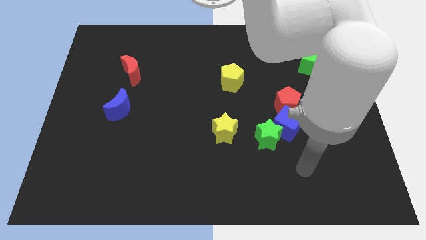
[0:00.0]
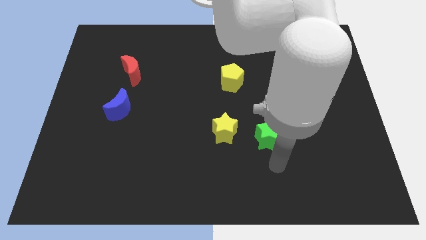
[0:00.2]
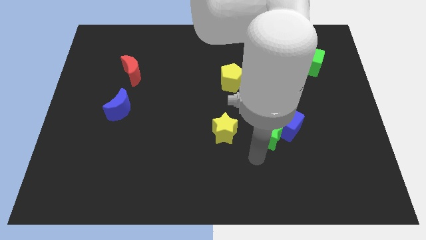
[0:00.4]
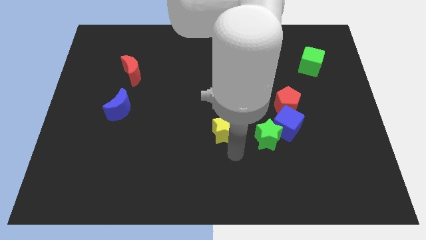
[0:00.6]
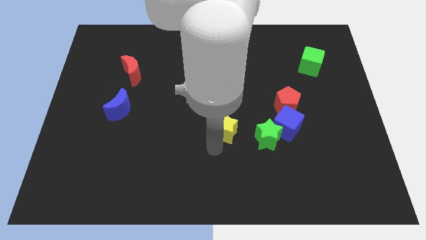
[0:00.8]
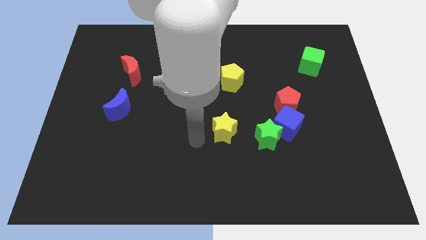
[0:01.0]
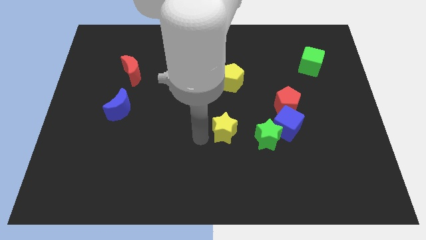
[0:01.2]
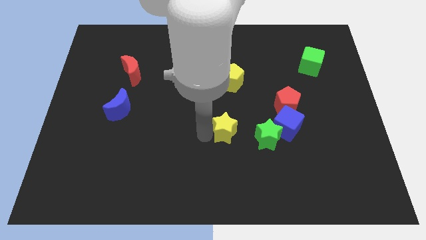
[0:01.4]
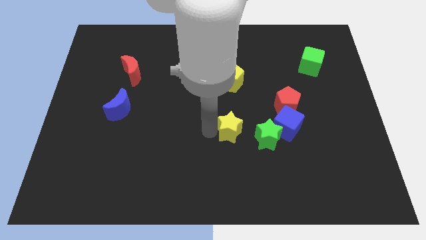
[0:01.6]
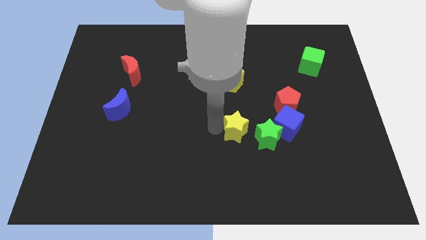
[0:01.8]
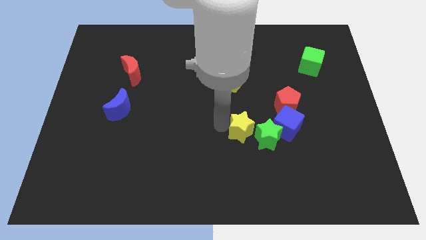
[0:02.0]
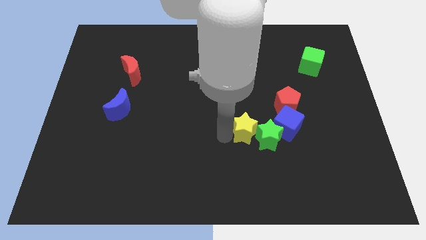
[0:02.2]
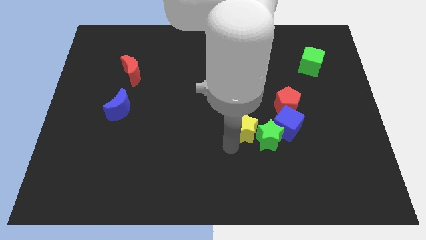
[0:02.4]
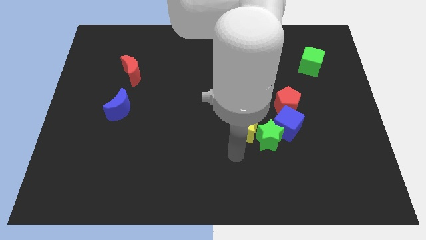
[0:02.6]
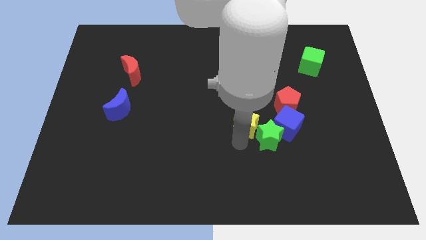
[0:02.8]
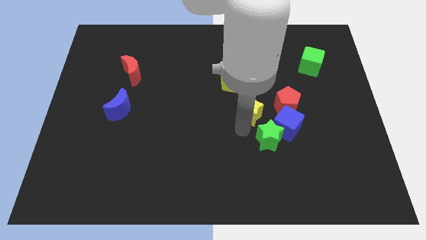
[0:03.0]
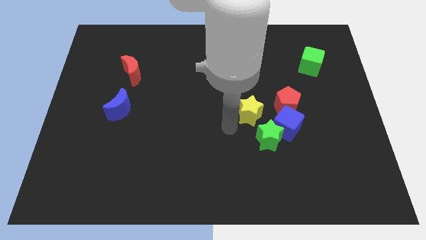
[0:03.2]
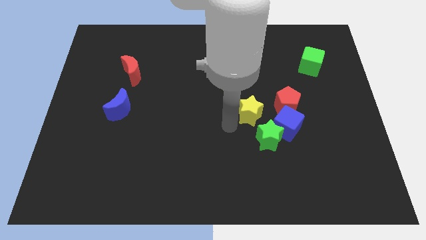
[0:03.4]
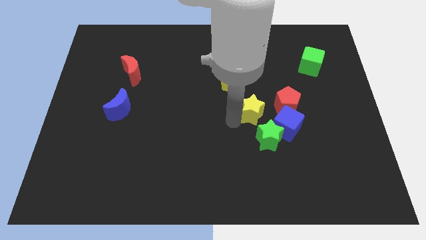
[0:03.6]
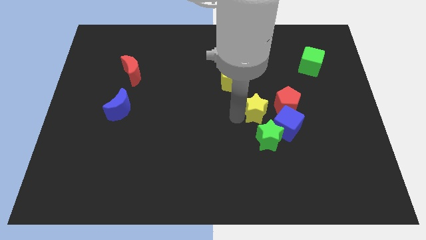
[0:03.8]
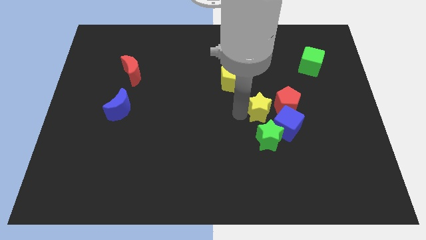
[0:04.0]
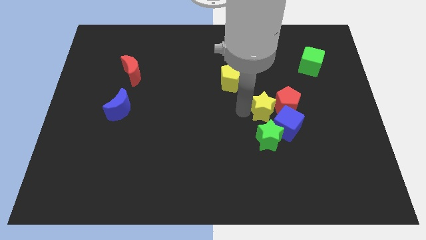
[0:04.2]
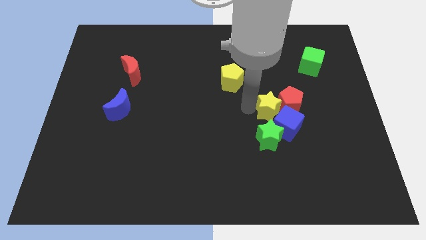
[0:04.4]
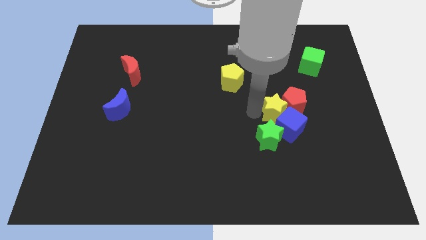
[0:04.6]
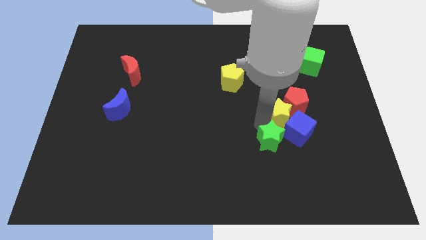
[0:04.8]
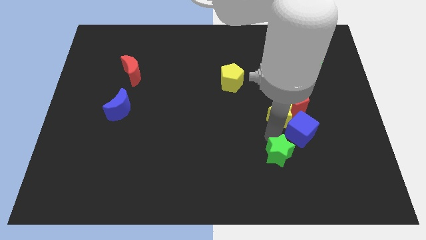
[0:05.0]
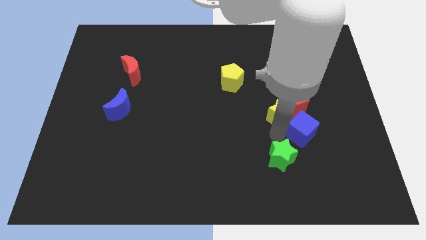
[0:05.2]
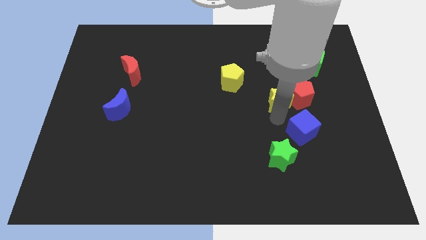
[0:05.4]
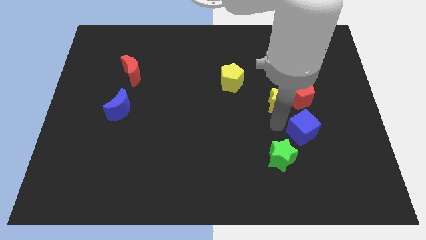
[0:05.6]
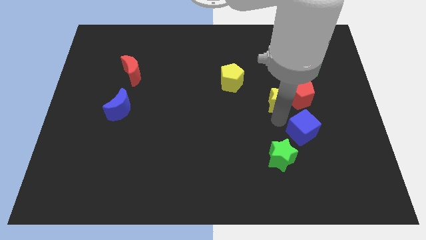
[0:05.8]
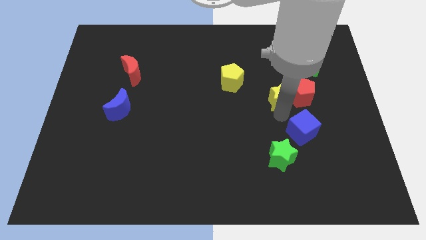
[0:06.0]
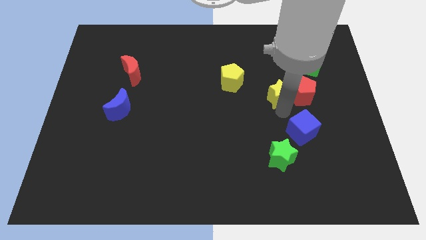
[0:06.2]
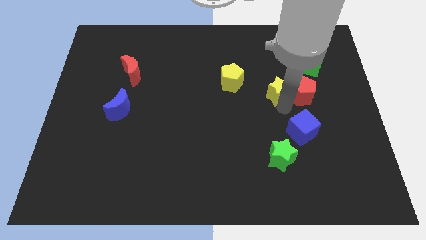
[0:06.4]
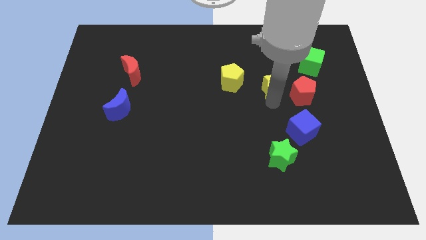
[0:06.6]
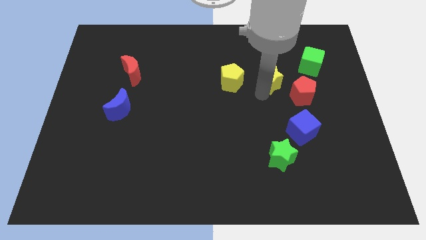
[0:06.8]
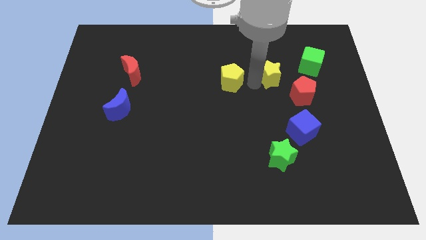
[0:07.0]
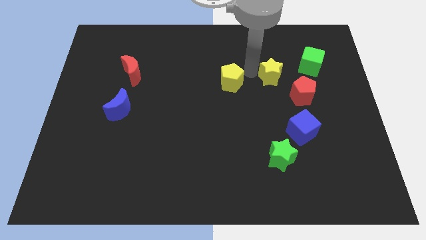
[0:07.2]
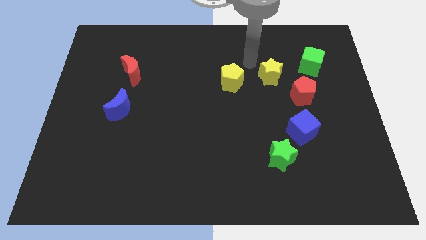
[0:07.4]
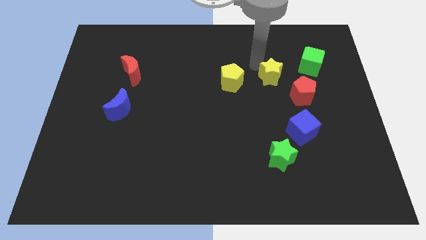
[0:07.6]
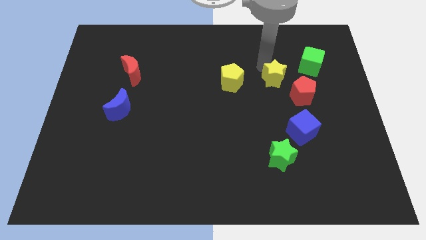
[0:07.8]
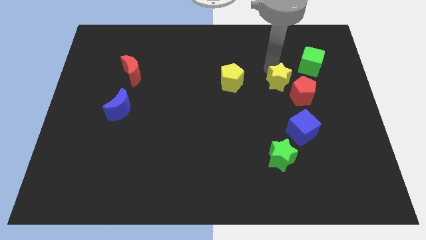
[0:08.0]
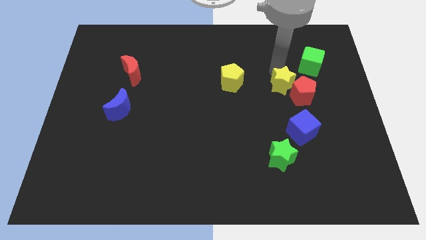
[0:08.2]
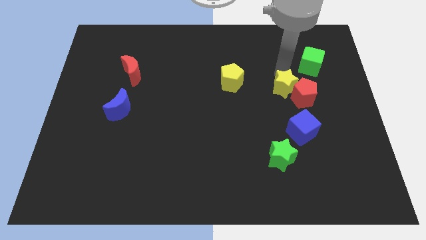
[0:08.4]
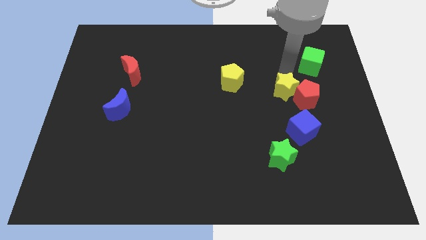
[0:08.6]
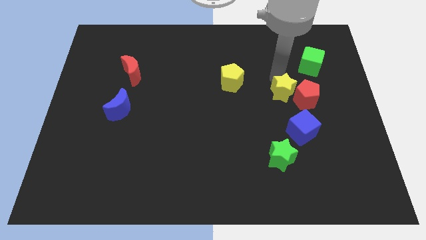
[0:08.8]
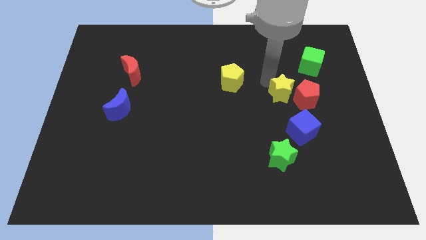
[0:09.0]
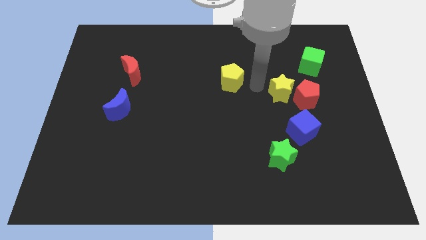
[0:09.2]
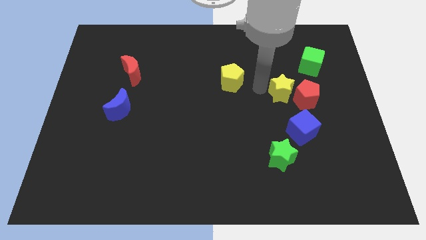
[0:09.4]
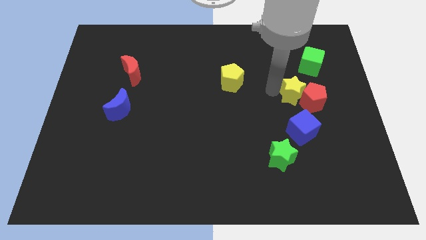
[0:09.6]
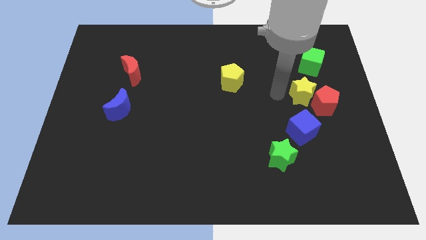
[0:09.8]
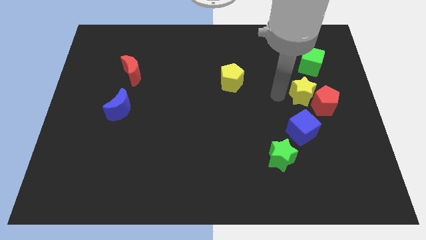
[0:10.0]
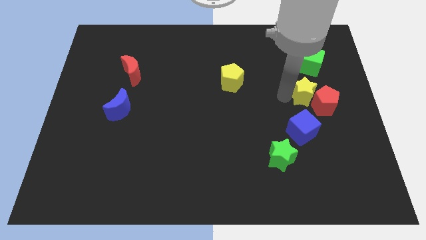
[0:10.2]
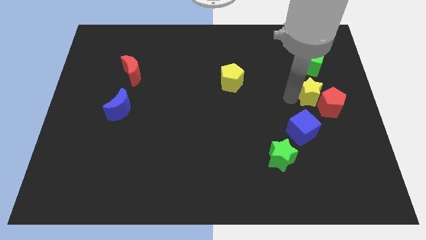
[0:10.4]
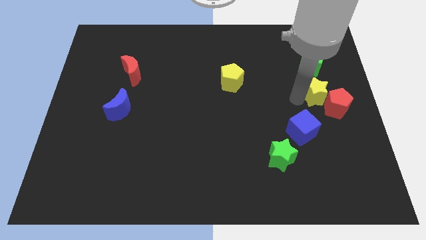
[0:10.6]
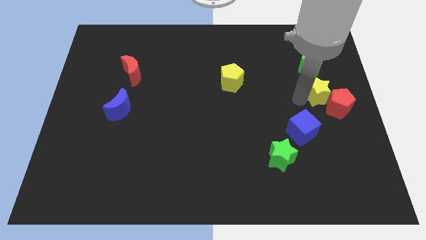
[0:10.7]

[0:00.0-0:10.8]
push the yellow star to the right side

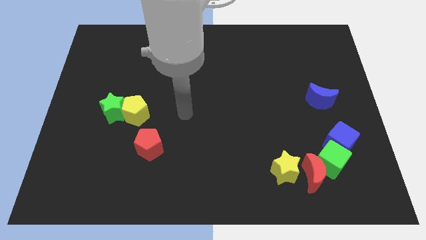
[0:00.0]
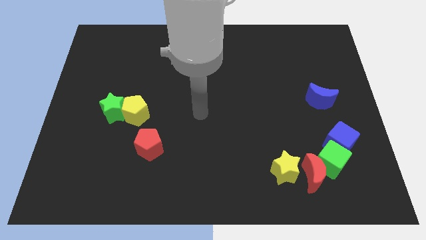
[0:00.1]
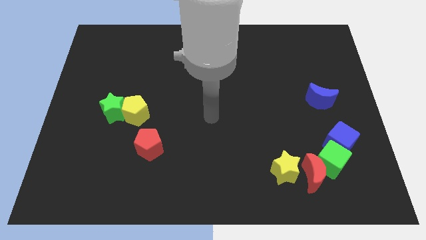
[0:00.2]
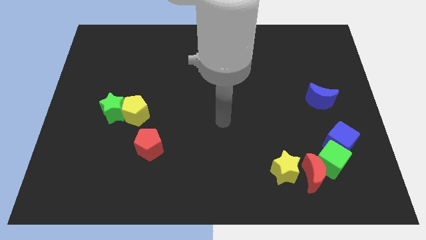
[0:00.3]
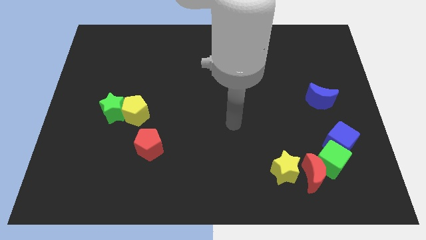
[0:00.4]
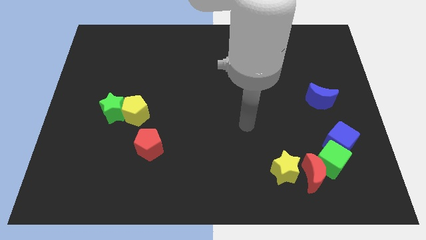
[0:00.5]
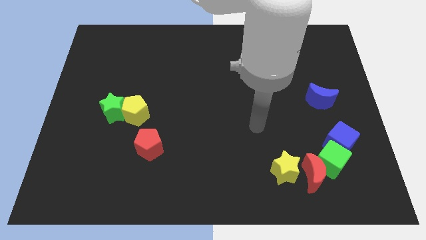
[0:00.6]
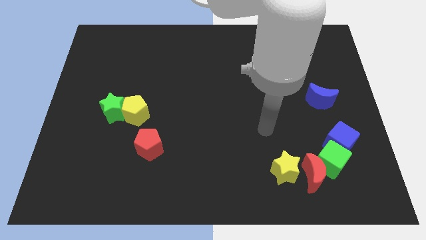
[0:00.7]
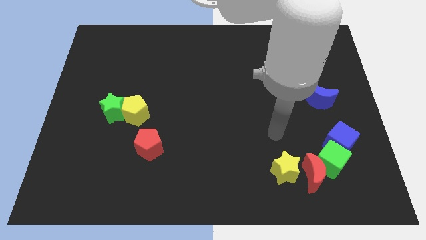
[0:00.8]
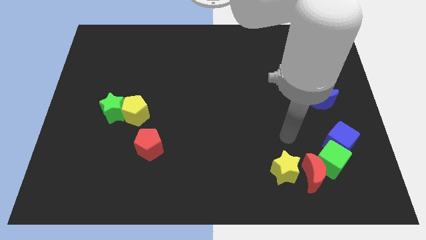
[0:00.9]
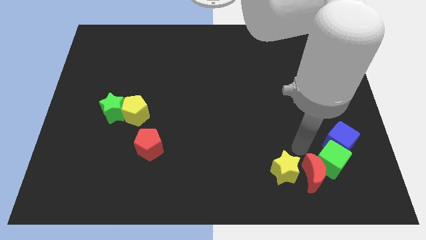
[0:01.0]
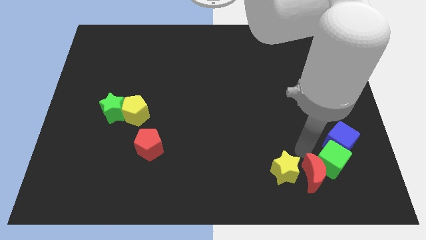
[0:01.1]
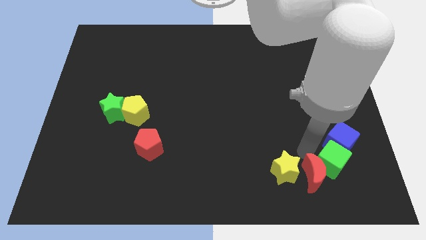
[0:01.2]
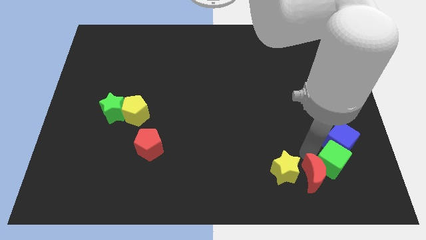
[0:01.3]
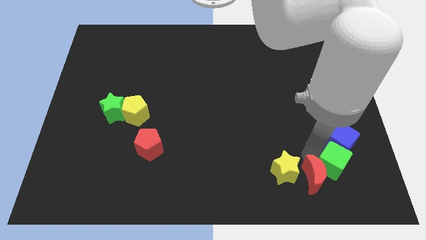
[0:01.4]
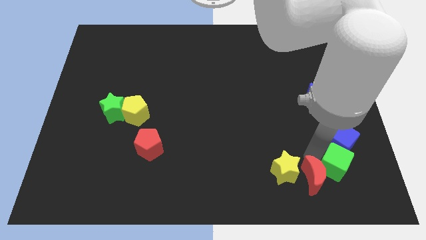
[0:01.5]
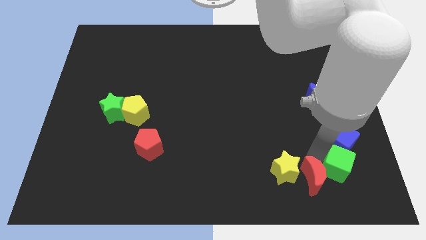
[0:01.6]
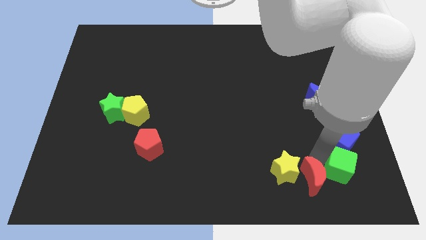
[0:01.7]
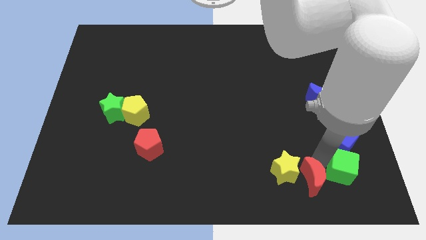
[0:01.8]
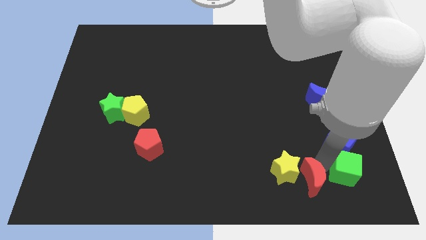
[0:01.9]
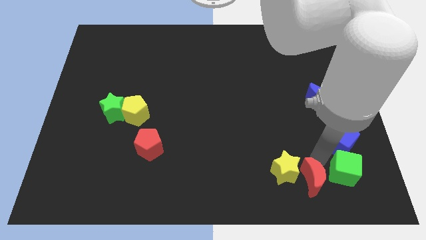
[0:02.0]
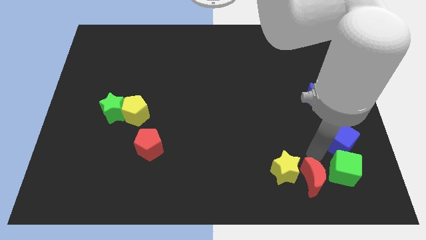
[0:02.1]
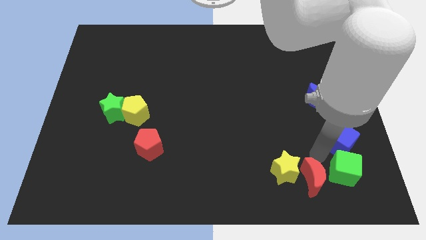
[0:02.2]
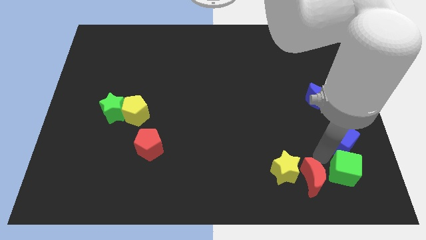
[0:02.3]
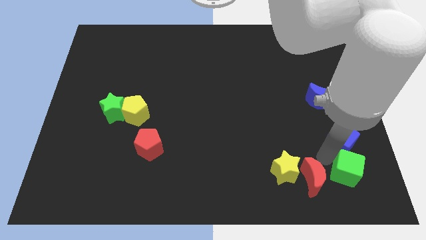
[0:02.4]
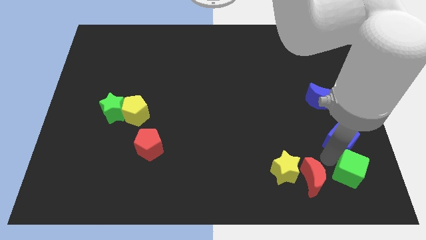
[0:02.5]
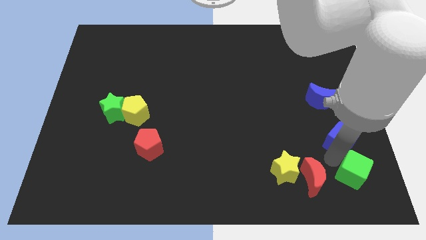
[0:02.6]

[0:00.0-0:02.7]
put the green cube to the lower right corner
